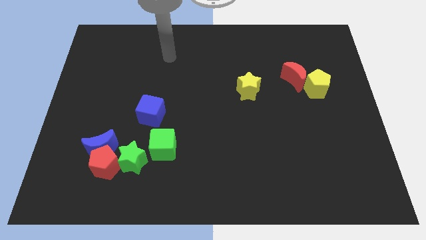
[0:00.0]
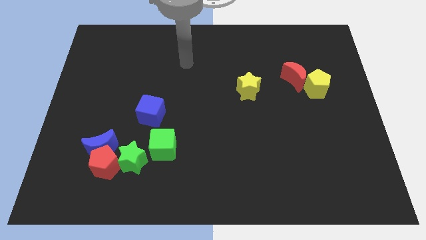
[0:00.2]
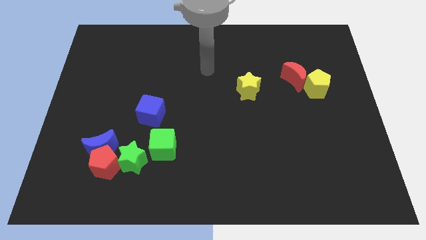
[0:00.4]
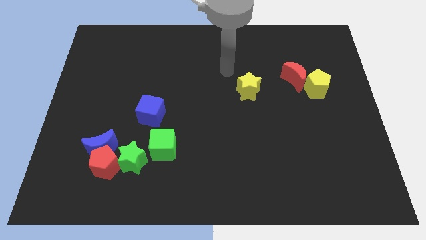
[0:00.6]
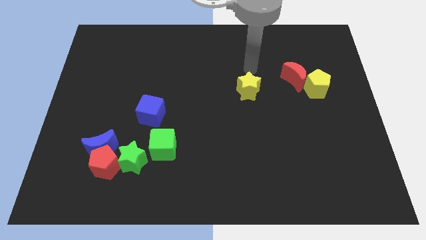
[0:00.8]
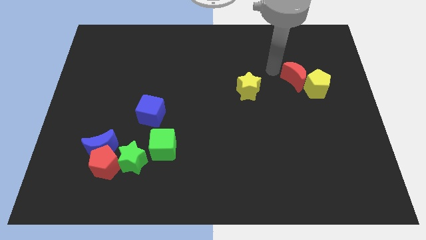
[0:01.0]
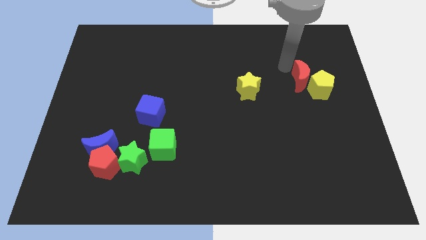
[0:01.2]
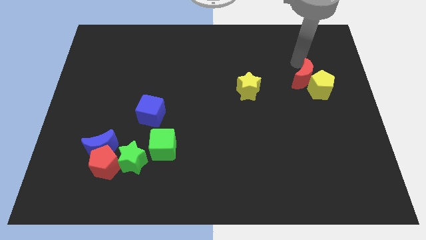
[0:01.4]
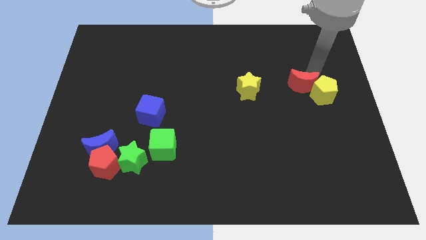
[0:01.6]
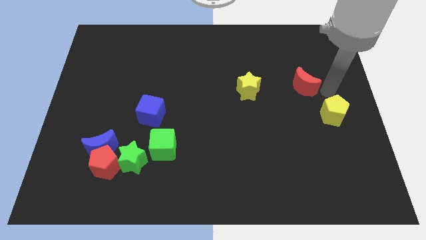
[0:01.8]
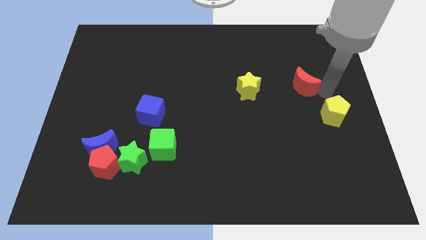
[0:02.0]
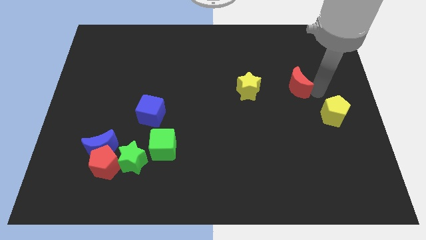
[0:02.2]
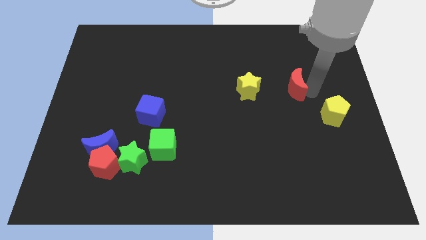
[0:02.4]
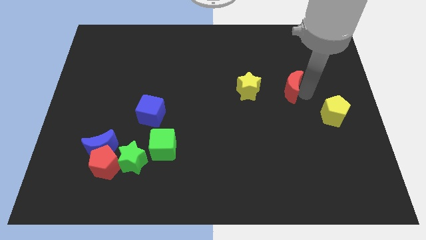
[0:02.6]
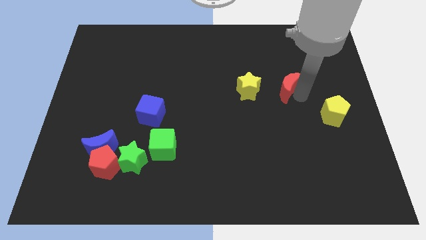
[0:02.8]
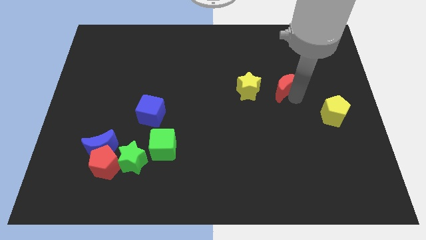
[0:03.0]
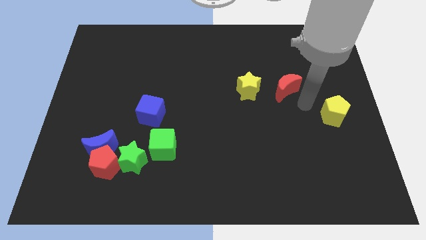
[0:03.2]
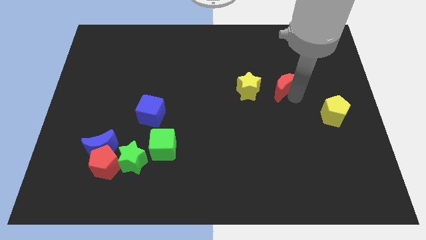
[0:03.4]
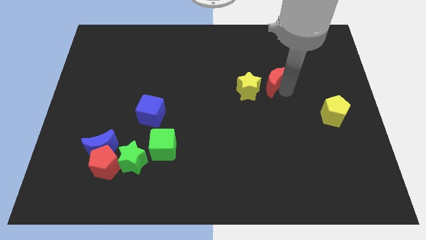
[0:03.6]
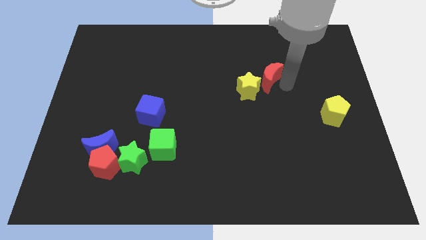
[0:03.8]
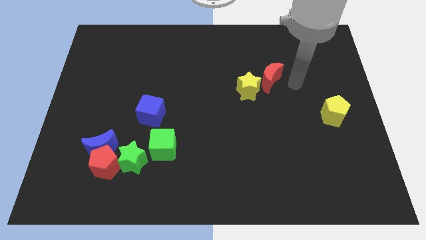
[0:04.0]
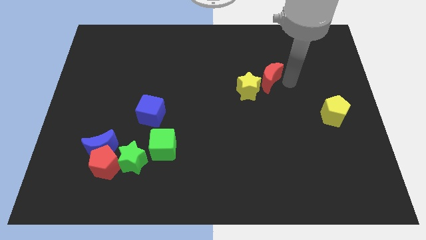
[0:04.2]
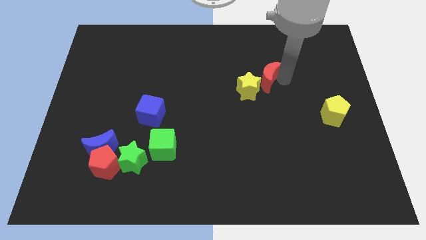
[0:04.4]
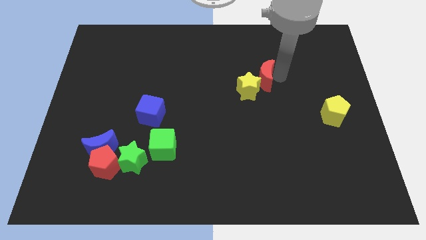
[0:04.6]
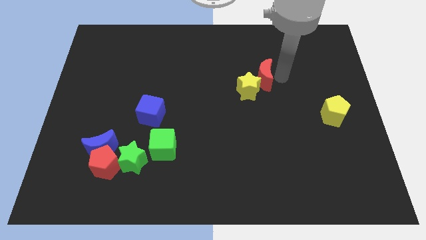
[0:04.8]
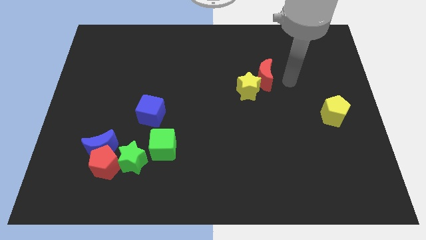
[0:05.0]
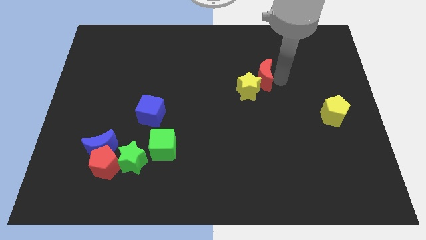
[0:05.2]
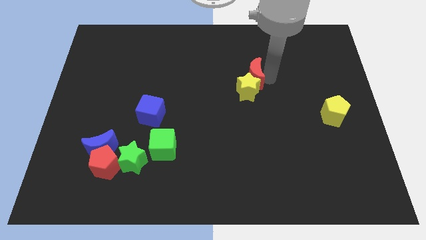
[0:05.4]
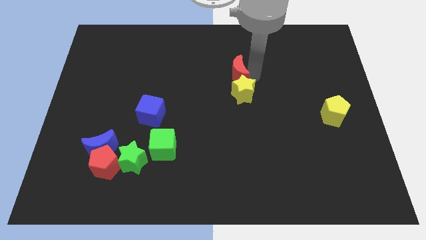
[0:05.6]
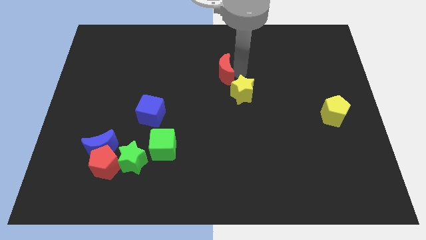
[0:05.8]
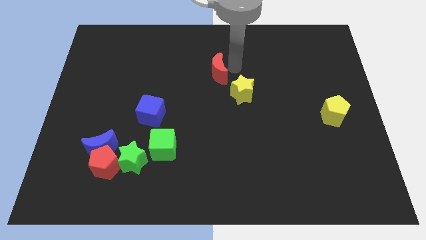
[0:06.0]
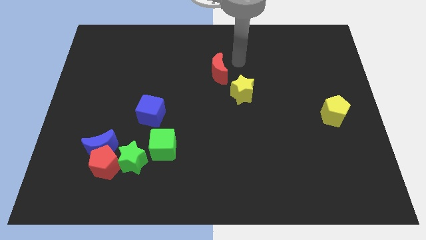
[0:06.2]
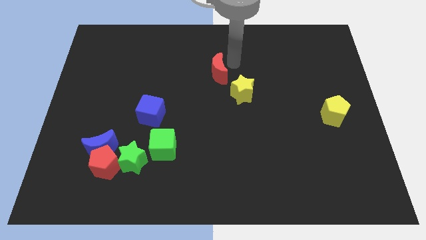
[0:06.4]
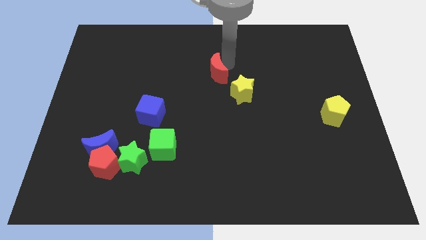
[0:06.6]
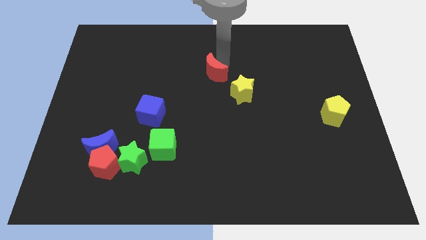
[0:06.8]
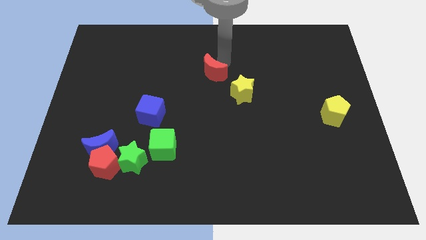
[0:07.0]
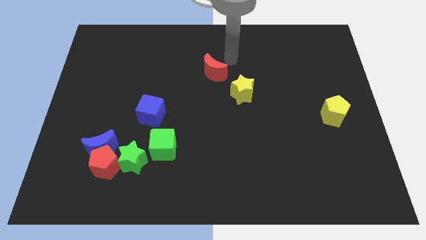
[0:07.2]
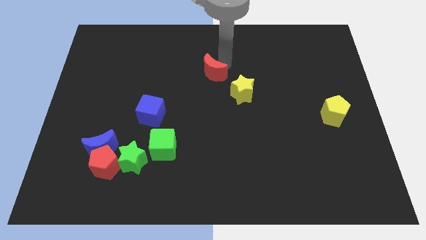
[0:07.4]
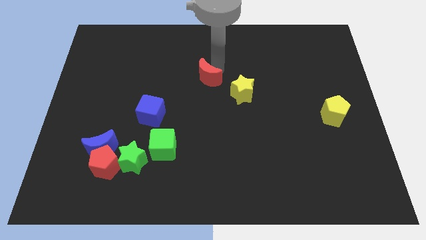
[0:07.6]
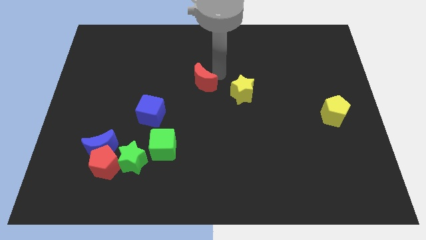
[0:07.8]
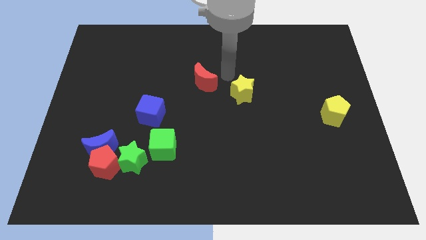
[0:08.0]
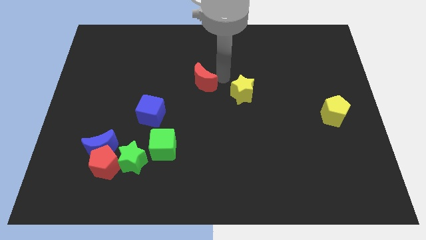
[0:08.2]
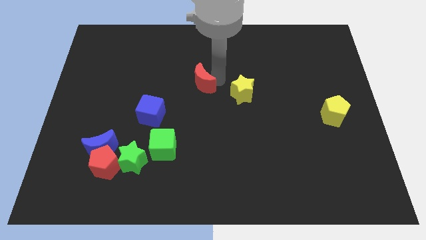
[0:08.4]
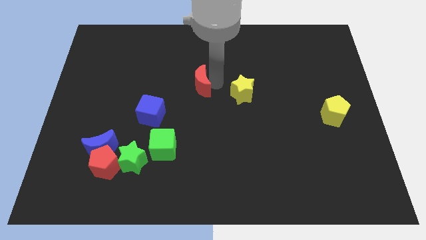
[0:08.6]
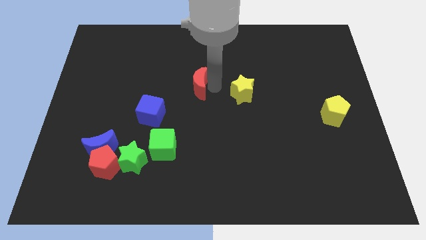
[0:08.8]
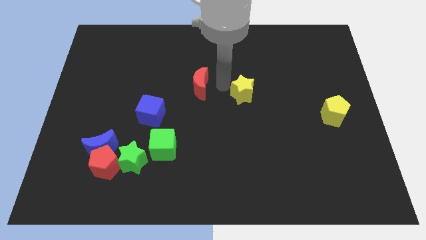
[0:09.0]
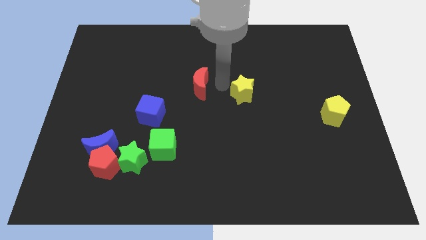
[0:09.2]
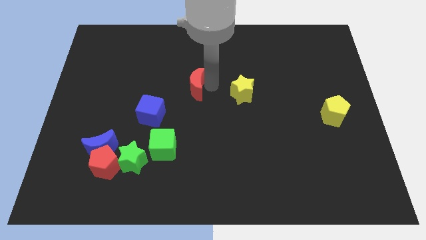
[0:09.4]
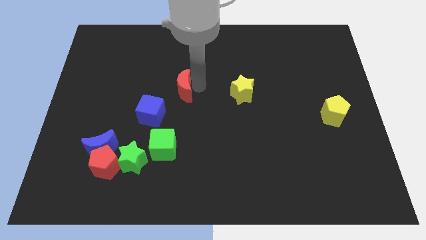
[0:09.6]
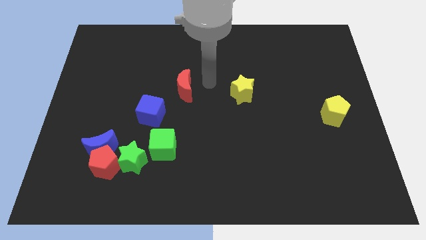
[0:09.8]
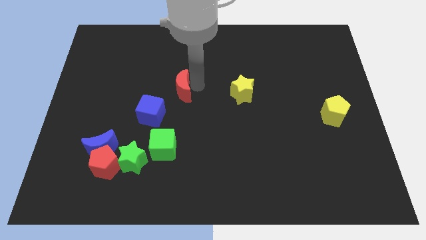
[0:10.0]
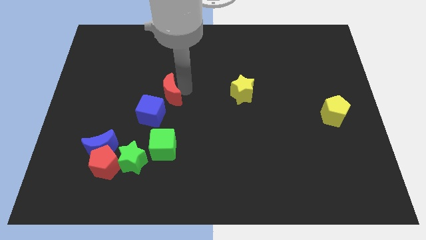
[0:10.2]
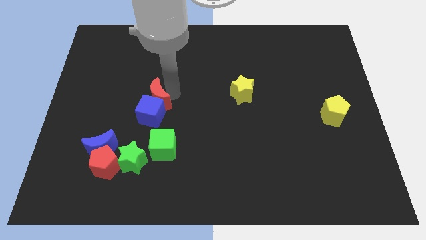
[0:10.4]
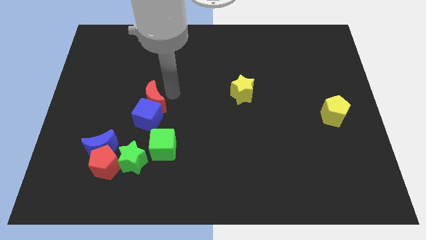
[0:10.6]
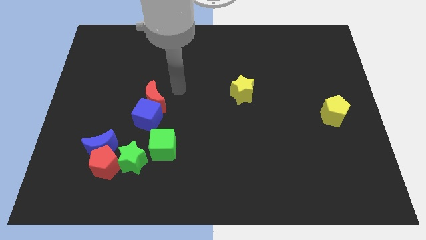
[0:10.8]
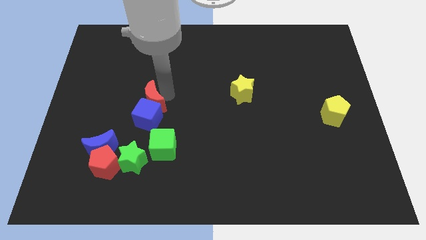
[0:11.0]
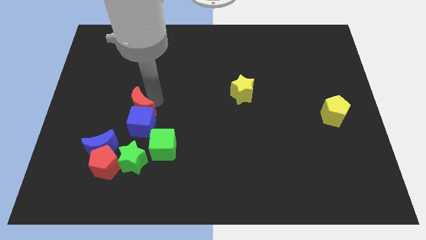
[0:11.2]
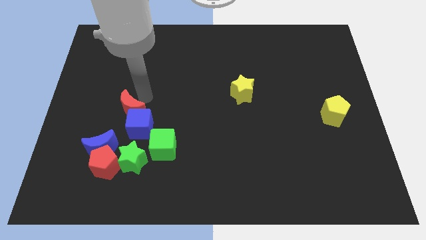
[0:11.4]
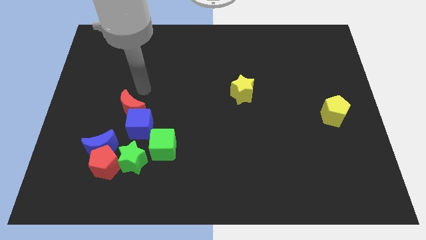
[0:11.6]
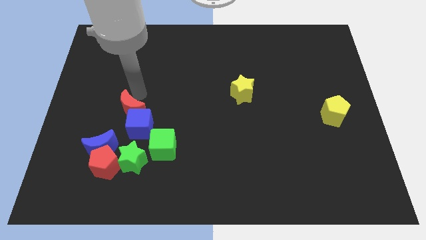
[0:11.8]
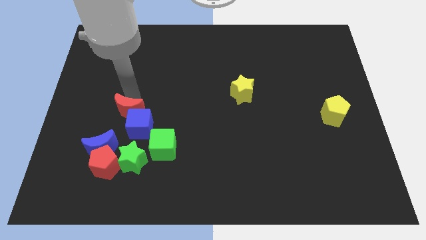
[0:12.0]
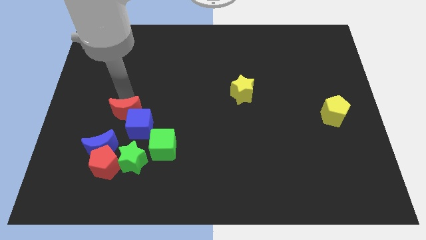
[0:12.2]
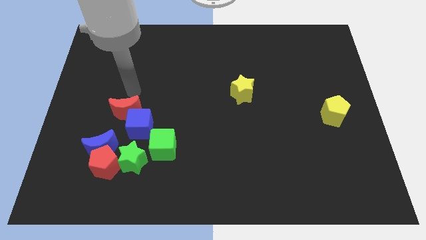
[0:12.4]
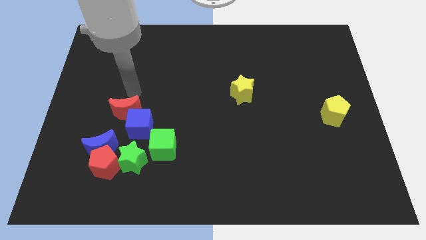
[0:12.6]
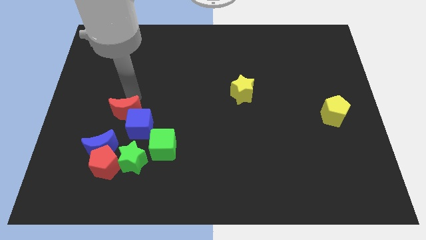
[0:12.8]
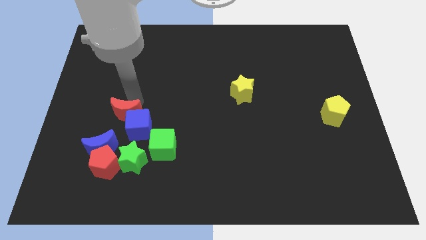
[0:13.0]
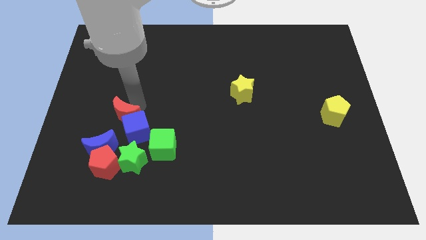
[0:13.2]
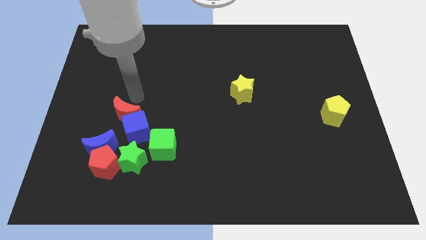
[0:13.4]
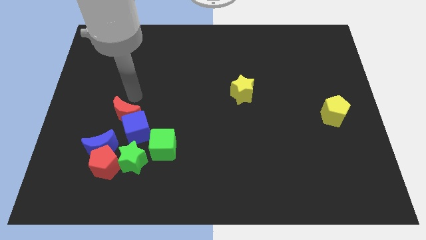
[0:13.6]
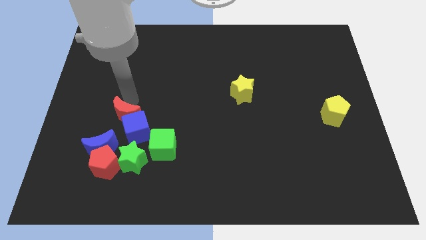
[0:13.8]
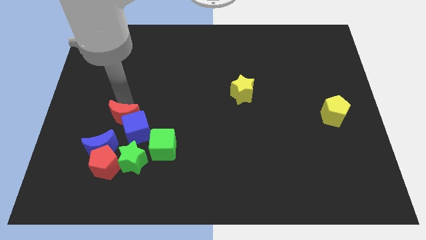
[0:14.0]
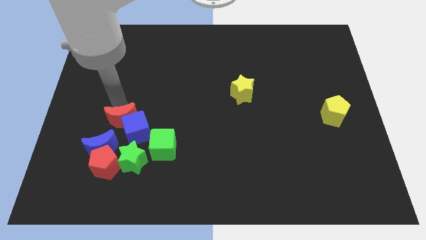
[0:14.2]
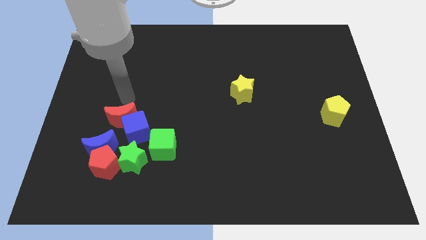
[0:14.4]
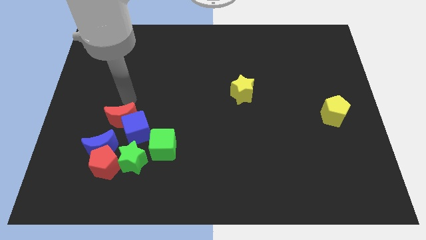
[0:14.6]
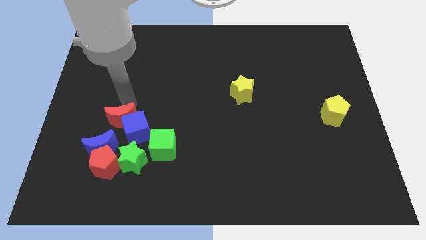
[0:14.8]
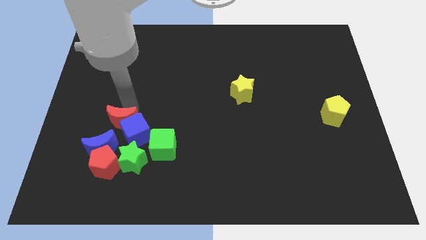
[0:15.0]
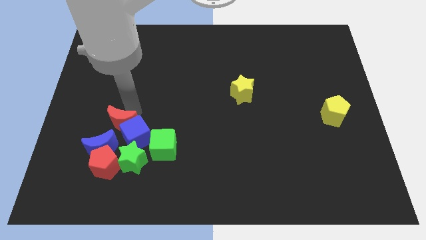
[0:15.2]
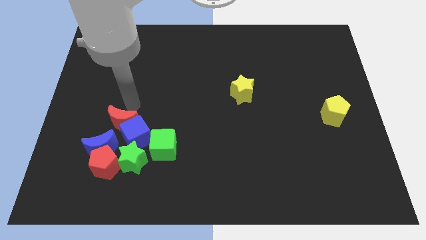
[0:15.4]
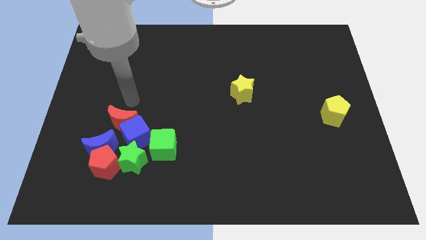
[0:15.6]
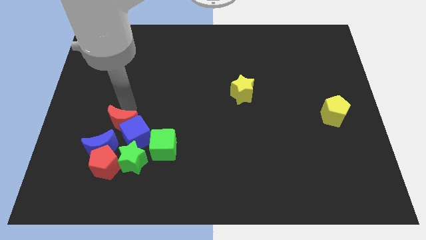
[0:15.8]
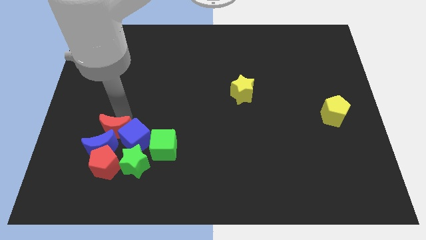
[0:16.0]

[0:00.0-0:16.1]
slide the red moon next to the blue moon
